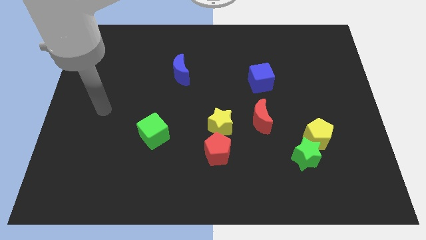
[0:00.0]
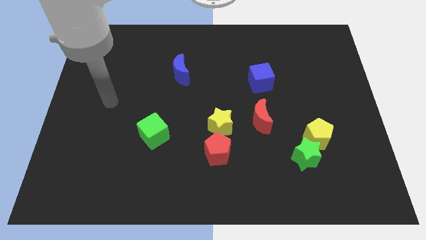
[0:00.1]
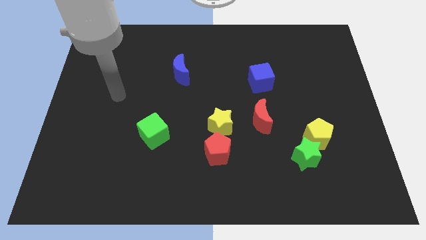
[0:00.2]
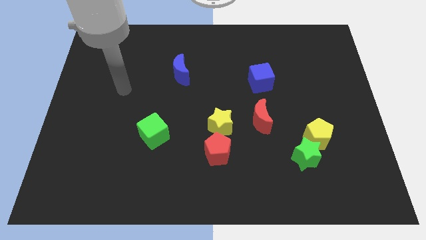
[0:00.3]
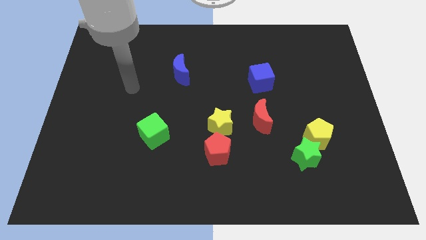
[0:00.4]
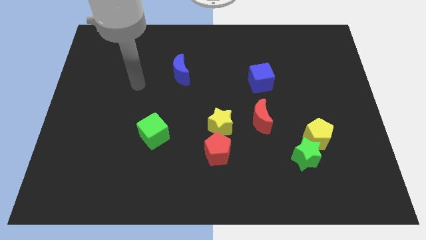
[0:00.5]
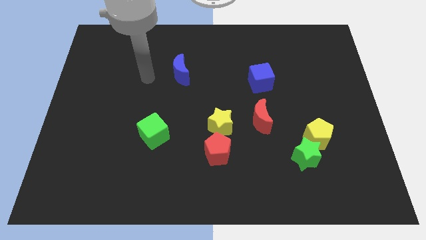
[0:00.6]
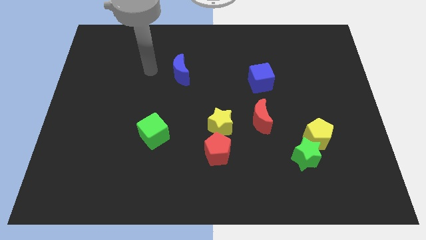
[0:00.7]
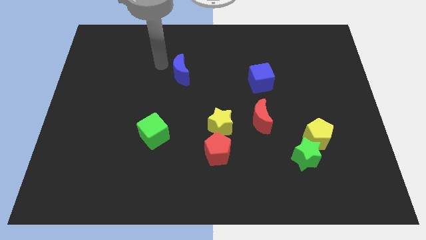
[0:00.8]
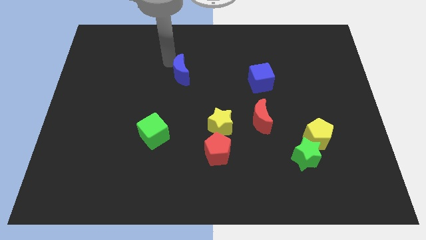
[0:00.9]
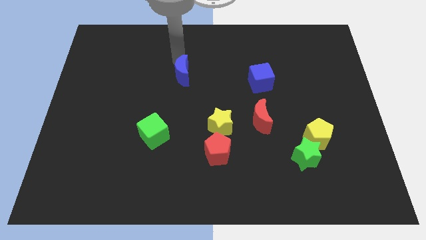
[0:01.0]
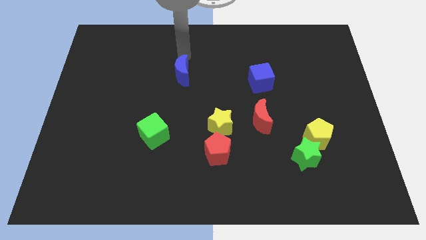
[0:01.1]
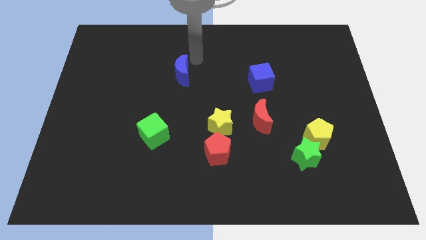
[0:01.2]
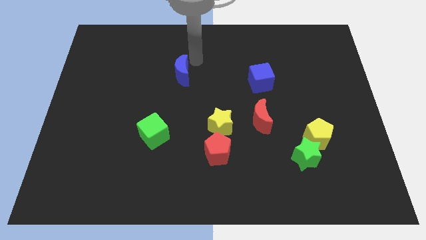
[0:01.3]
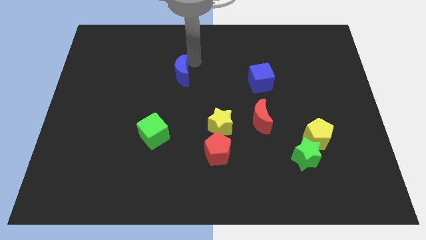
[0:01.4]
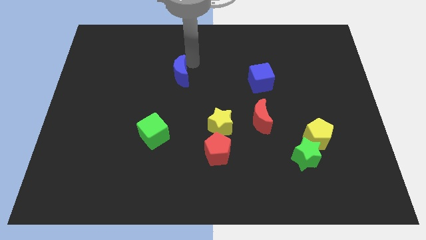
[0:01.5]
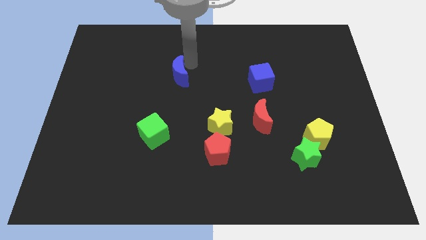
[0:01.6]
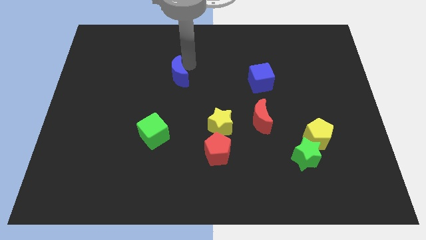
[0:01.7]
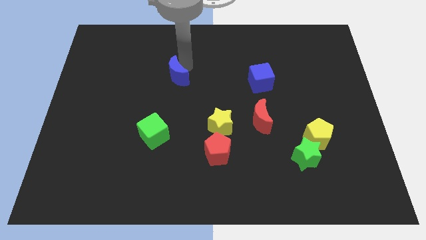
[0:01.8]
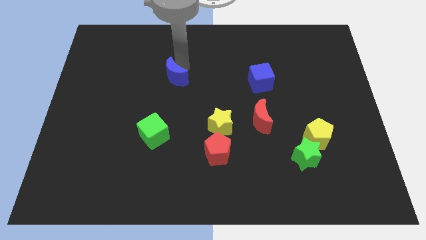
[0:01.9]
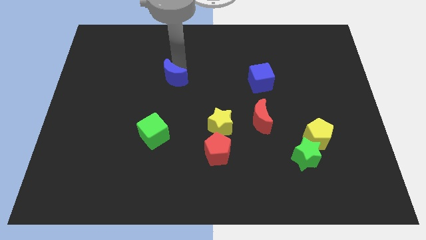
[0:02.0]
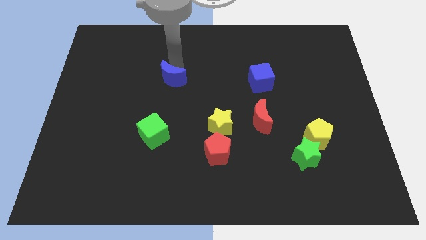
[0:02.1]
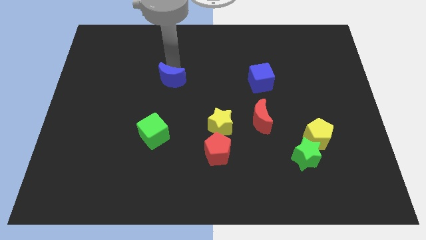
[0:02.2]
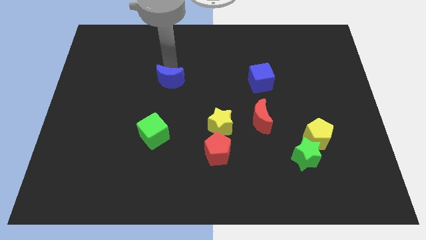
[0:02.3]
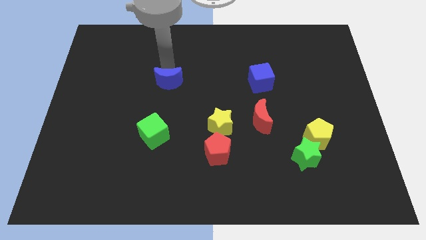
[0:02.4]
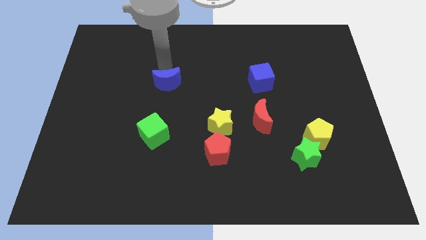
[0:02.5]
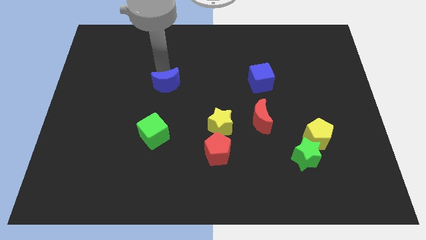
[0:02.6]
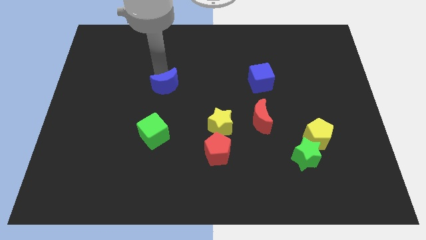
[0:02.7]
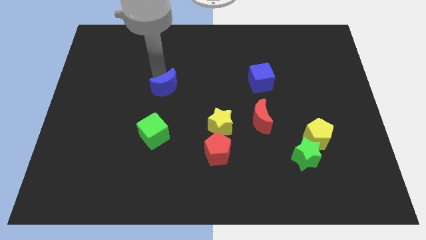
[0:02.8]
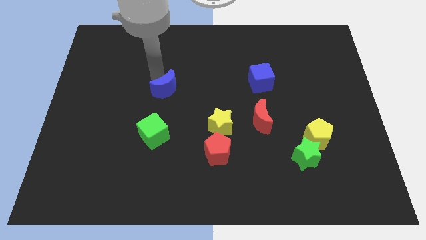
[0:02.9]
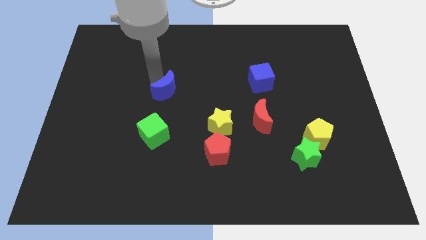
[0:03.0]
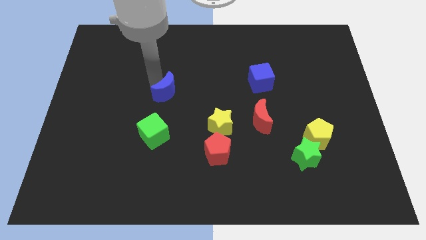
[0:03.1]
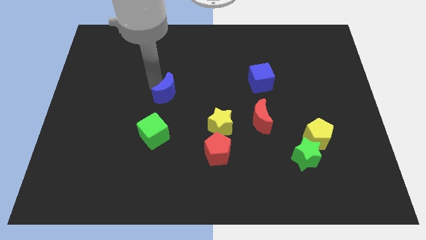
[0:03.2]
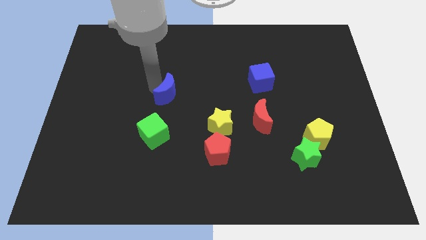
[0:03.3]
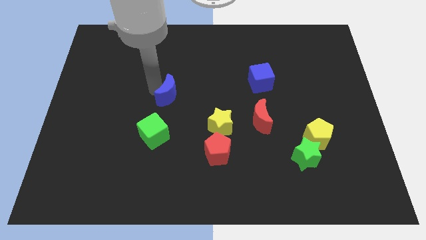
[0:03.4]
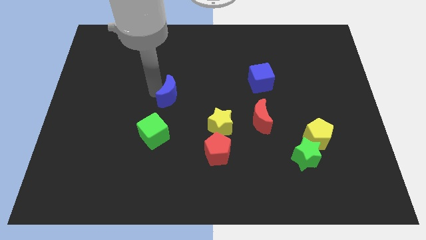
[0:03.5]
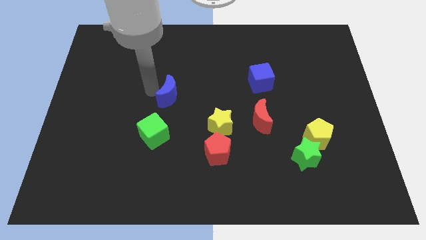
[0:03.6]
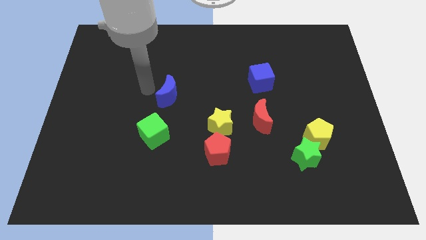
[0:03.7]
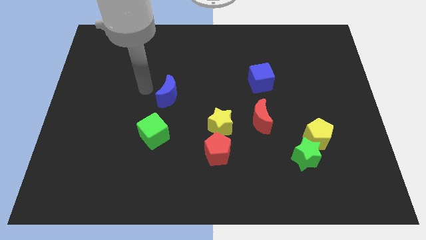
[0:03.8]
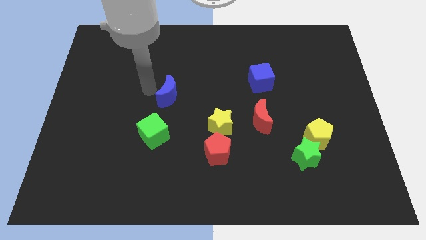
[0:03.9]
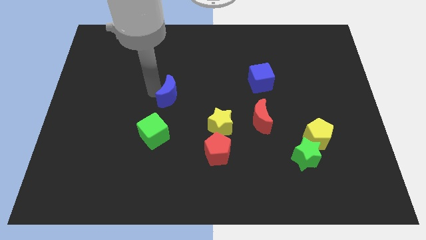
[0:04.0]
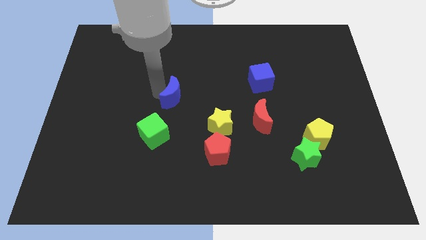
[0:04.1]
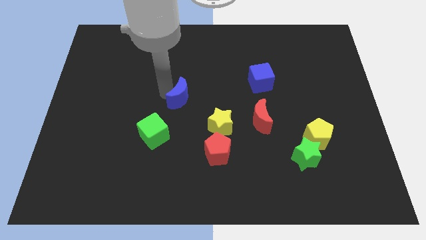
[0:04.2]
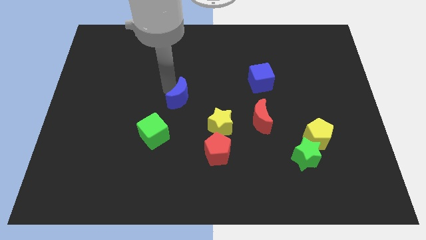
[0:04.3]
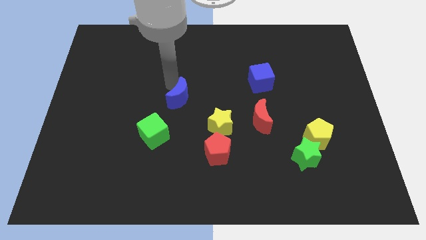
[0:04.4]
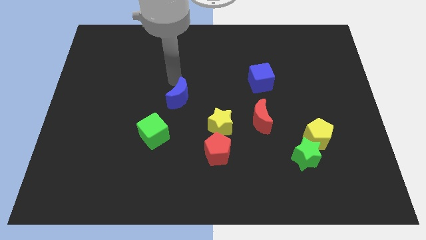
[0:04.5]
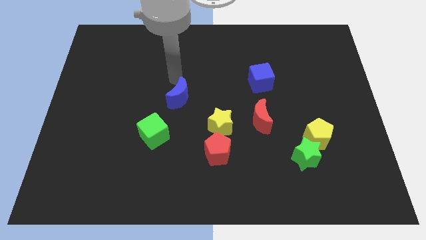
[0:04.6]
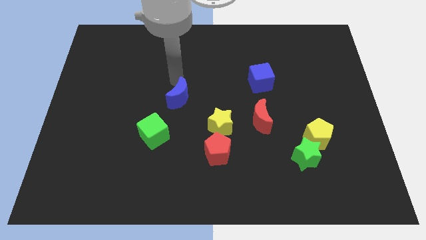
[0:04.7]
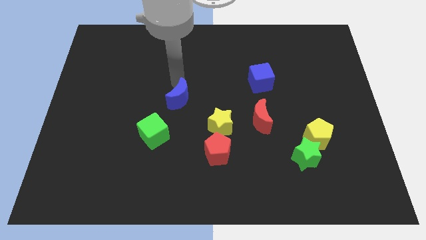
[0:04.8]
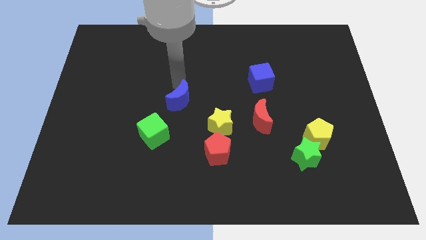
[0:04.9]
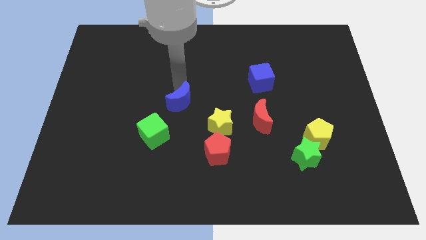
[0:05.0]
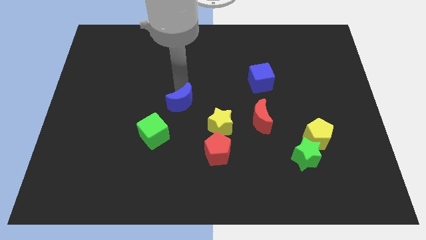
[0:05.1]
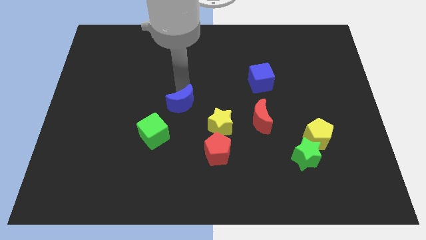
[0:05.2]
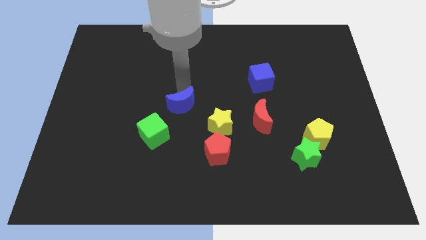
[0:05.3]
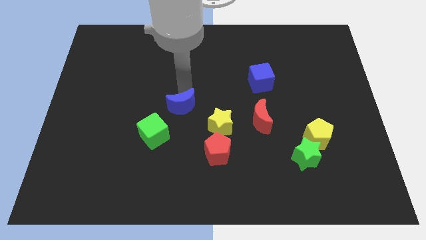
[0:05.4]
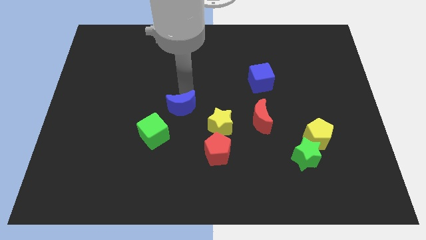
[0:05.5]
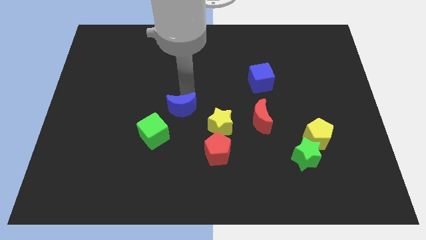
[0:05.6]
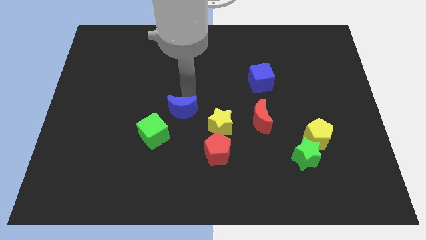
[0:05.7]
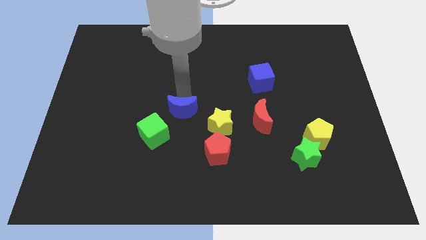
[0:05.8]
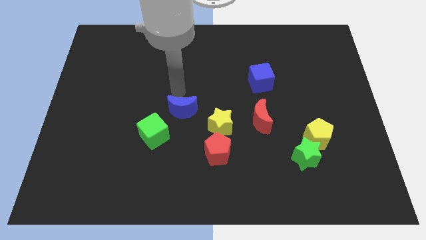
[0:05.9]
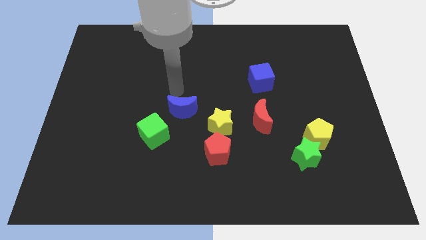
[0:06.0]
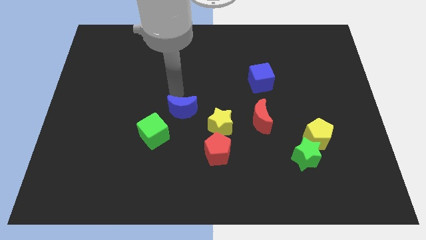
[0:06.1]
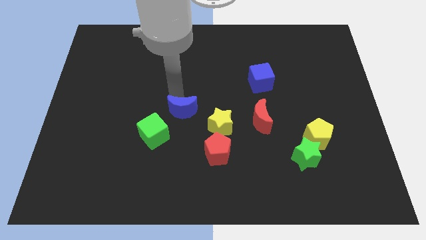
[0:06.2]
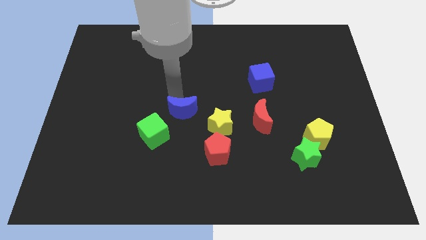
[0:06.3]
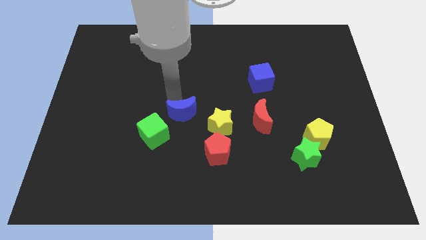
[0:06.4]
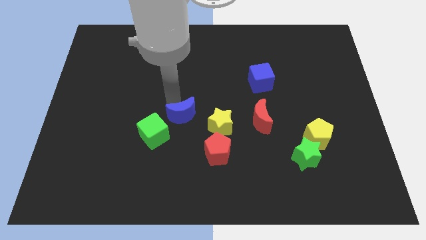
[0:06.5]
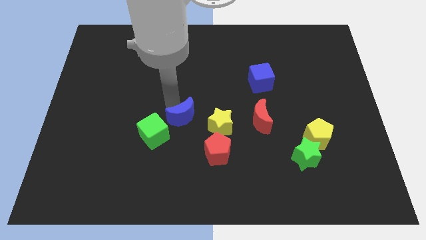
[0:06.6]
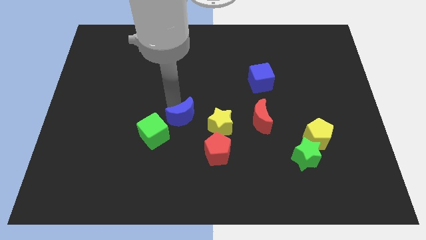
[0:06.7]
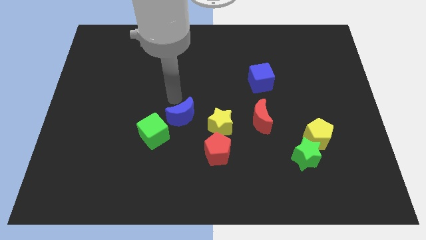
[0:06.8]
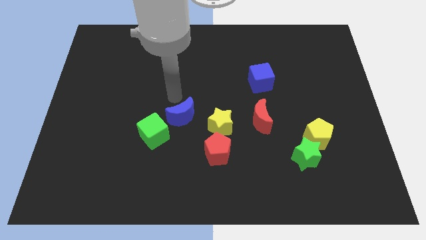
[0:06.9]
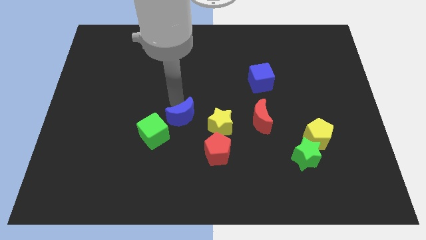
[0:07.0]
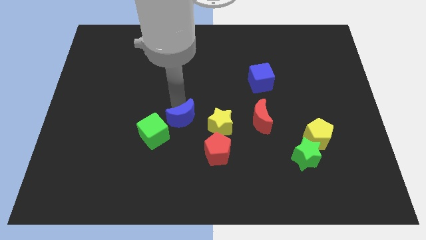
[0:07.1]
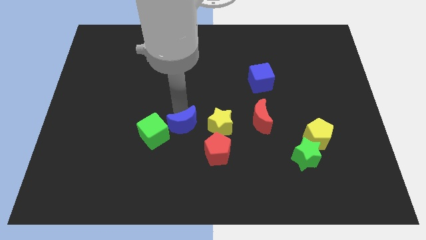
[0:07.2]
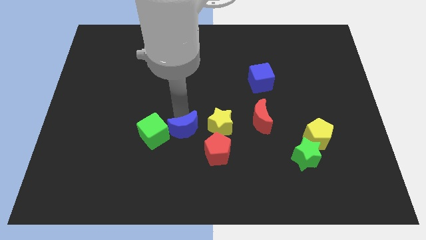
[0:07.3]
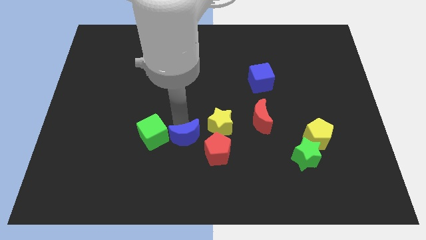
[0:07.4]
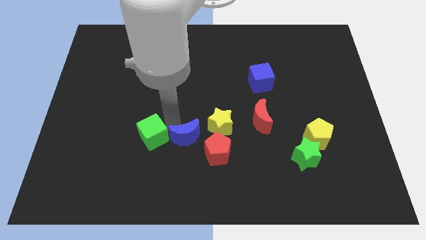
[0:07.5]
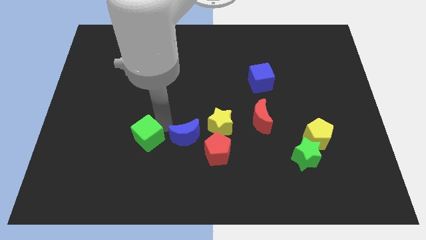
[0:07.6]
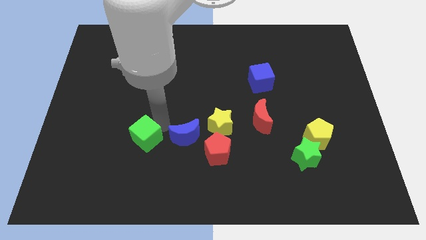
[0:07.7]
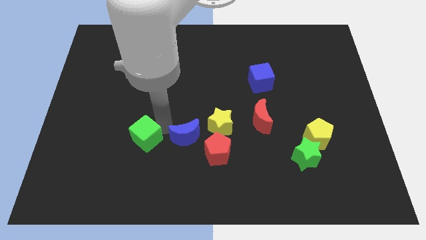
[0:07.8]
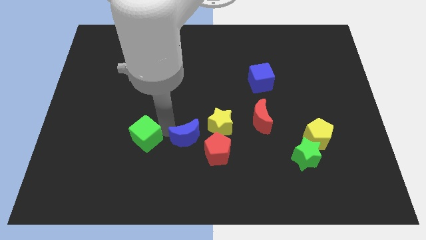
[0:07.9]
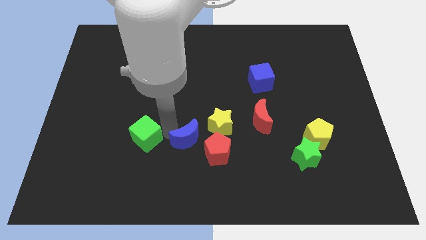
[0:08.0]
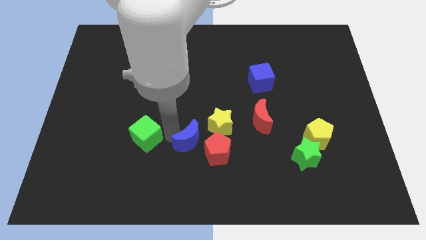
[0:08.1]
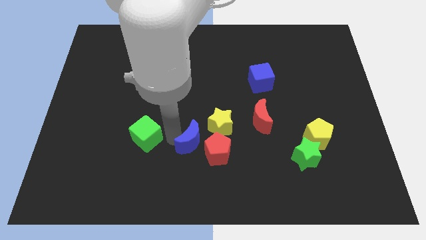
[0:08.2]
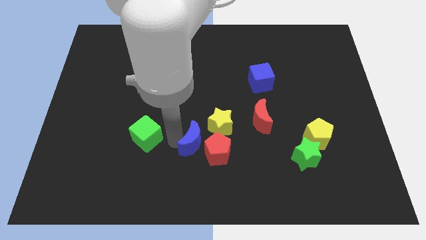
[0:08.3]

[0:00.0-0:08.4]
slide the blue moon next to the red pentagon
